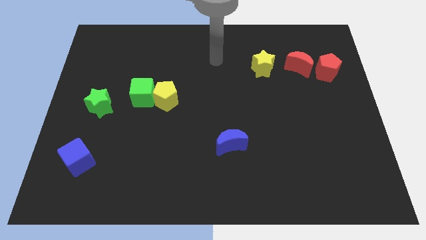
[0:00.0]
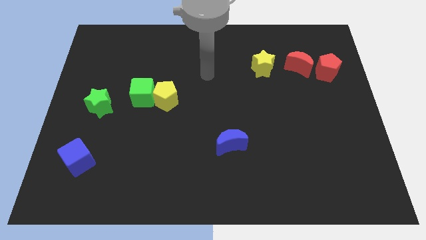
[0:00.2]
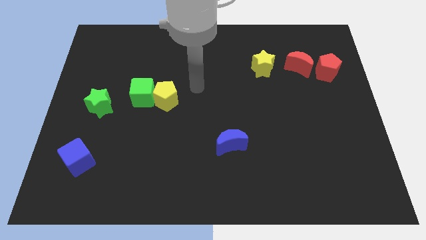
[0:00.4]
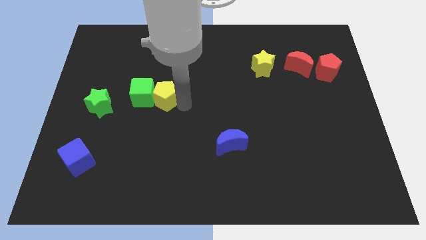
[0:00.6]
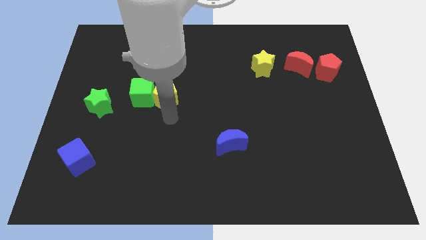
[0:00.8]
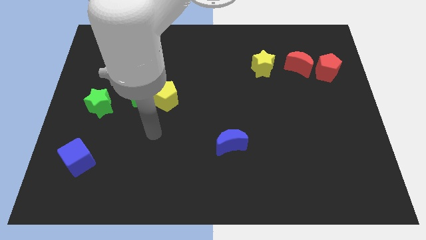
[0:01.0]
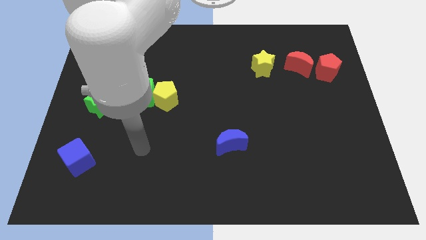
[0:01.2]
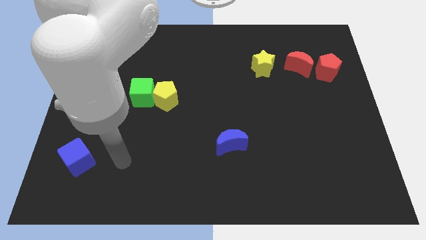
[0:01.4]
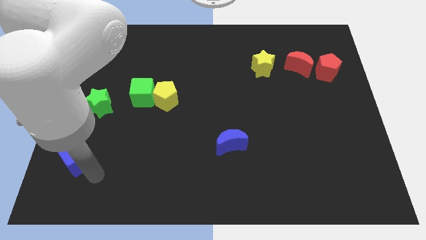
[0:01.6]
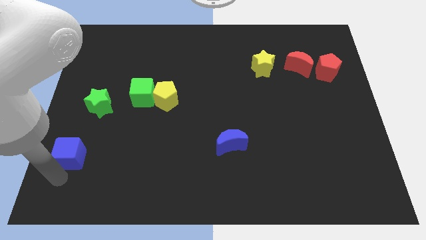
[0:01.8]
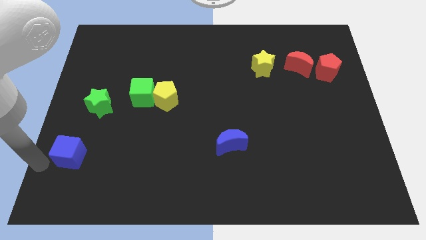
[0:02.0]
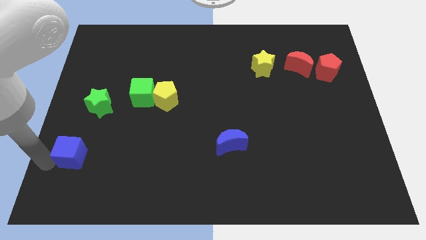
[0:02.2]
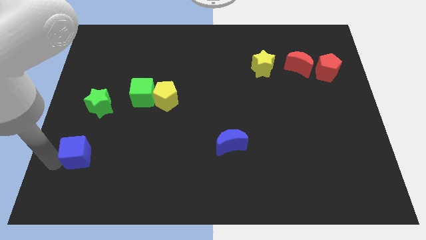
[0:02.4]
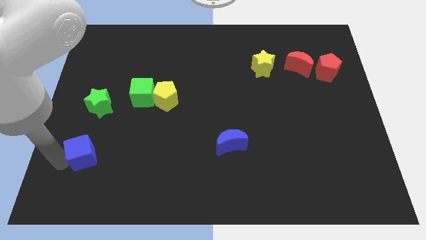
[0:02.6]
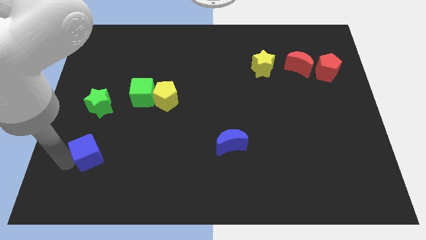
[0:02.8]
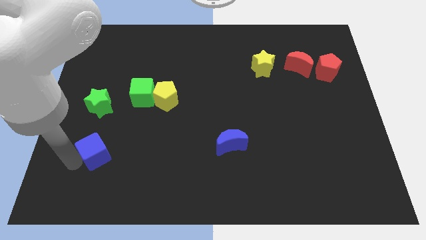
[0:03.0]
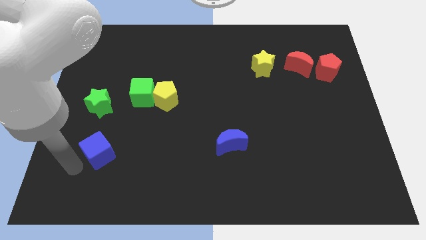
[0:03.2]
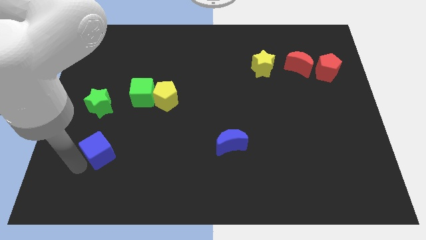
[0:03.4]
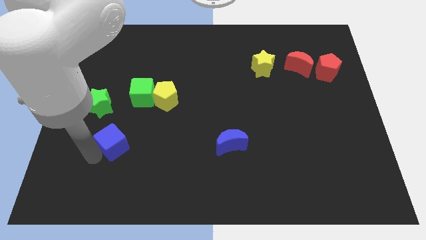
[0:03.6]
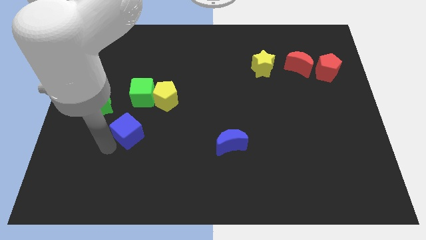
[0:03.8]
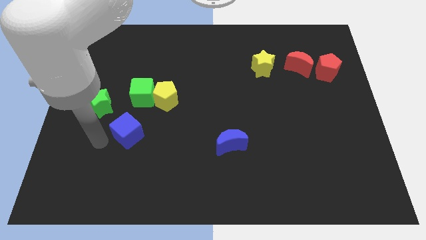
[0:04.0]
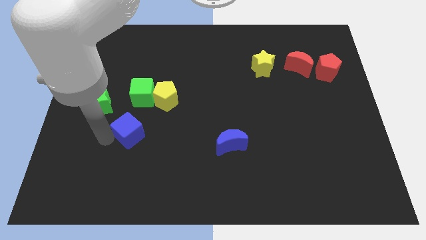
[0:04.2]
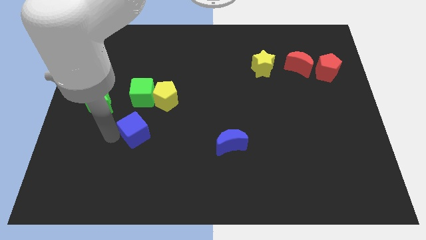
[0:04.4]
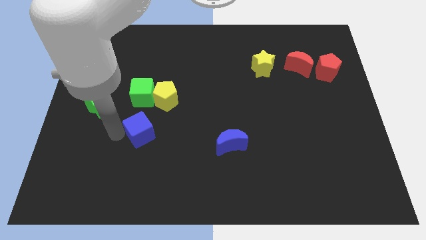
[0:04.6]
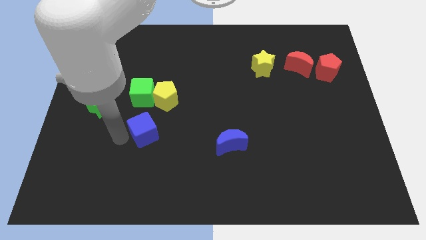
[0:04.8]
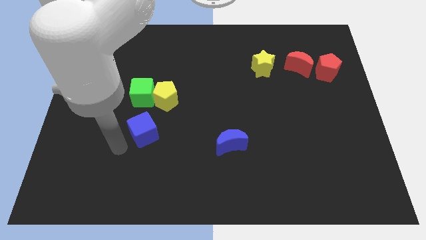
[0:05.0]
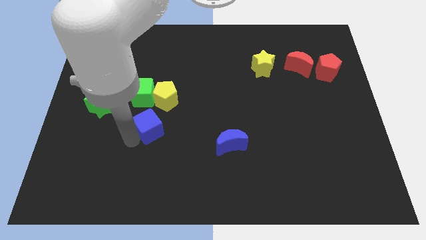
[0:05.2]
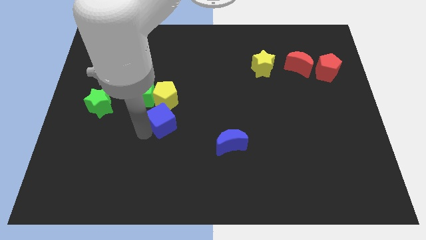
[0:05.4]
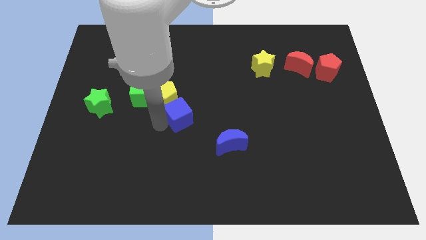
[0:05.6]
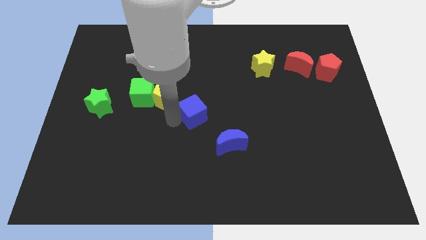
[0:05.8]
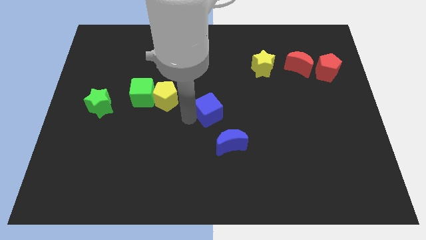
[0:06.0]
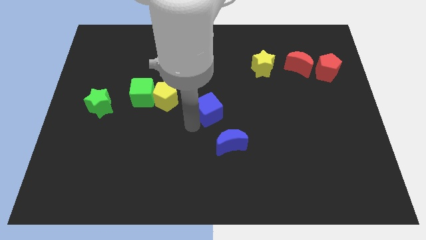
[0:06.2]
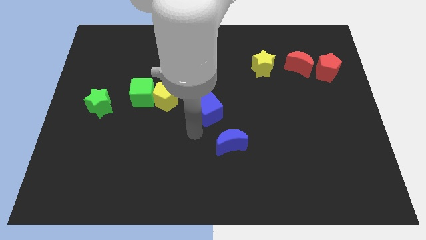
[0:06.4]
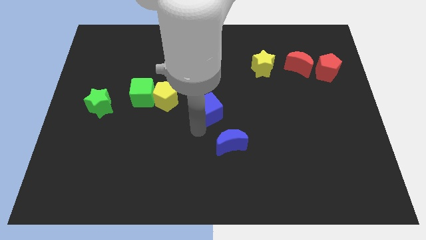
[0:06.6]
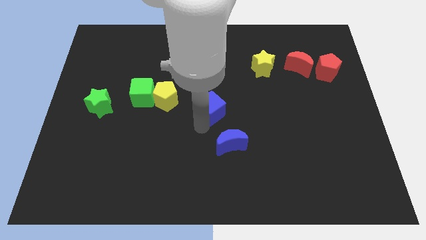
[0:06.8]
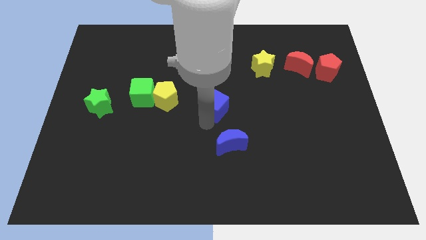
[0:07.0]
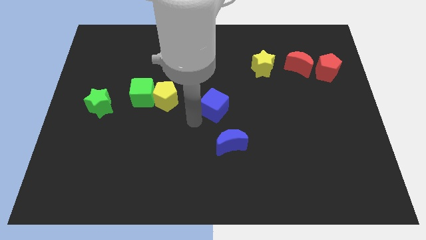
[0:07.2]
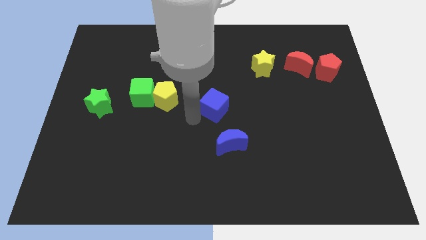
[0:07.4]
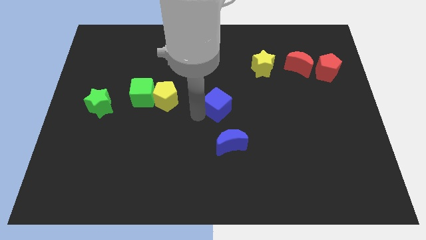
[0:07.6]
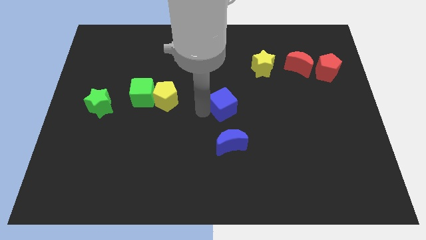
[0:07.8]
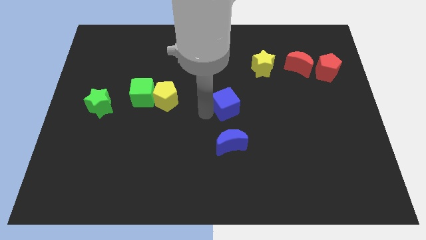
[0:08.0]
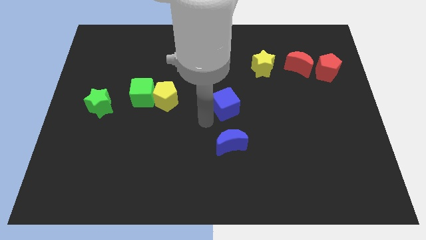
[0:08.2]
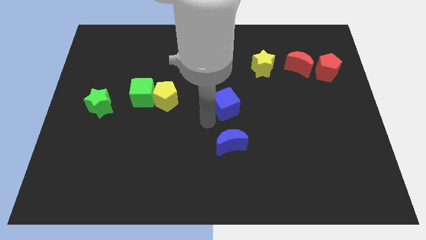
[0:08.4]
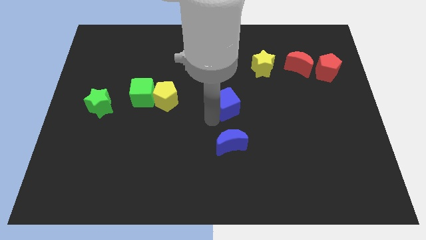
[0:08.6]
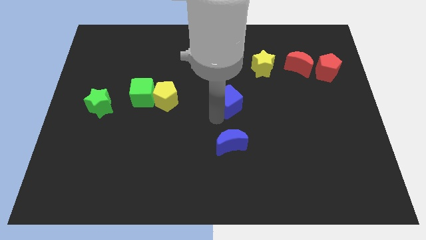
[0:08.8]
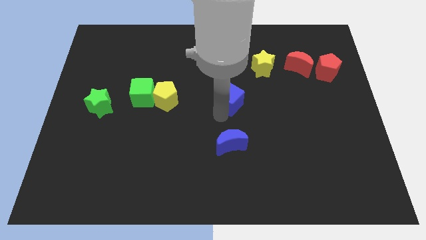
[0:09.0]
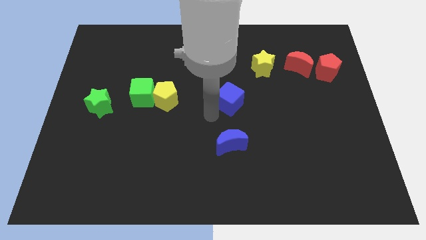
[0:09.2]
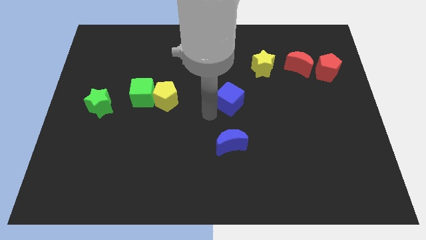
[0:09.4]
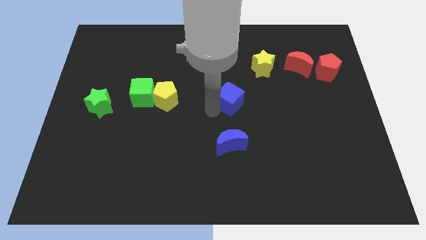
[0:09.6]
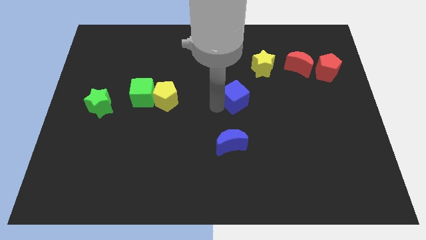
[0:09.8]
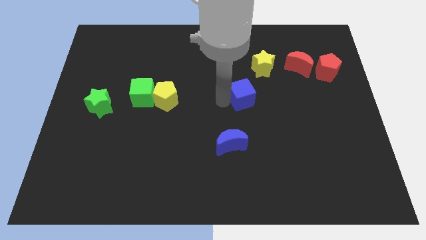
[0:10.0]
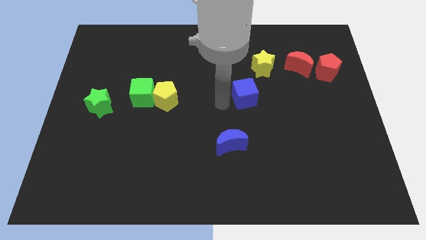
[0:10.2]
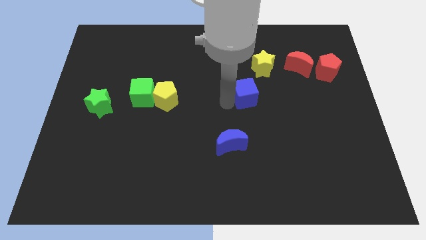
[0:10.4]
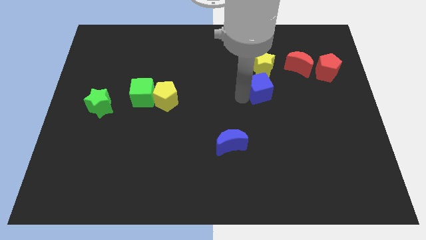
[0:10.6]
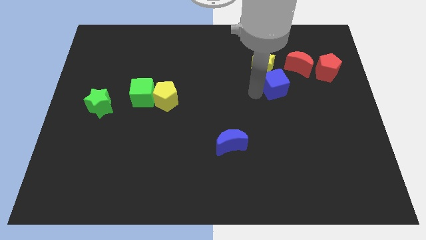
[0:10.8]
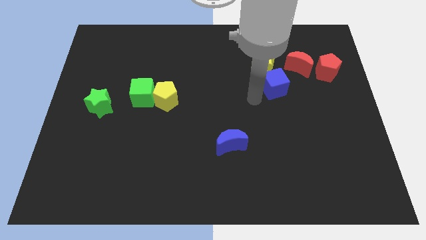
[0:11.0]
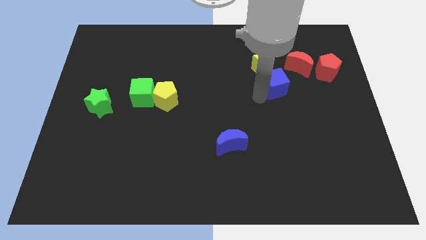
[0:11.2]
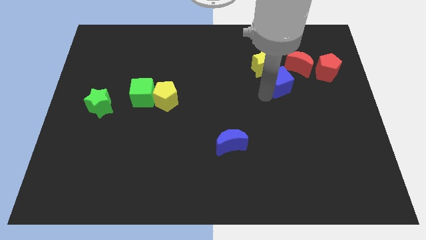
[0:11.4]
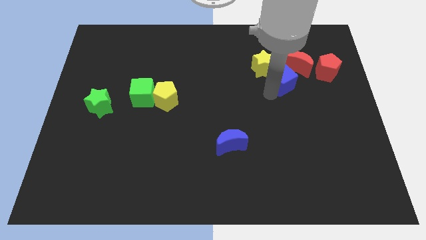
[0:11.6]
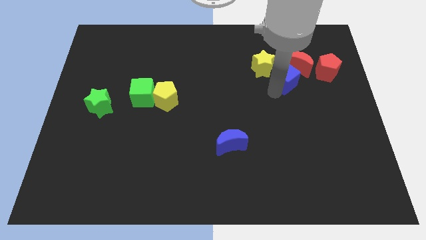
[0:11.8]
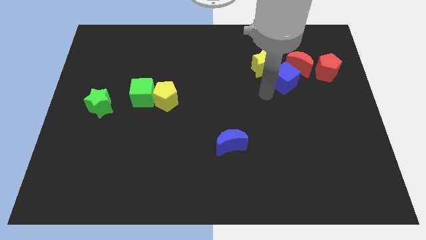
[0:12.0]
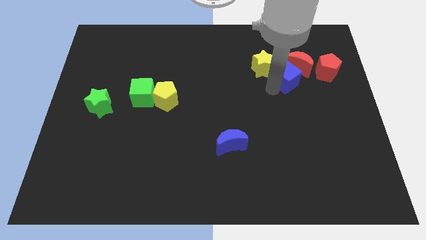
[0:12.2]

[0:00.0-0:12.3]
slide the blue cube close to the red moon

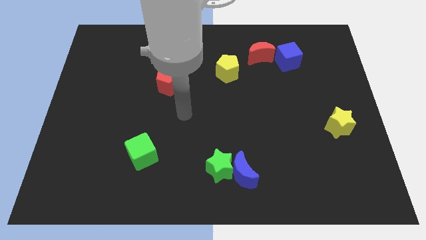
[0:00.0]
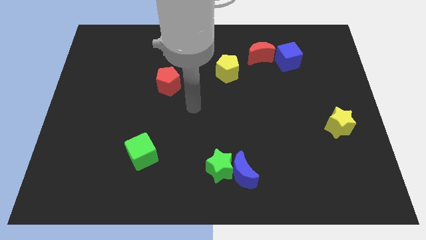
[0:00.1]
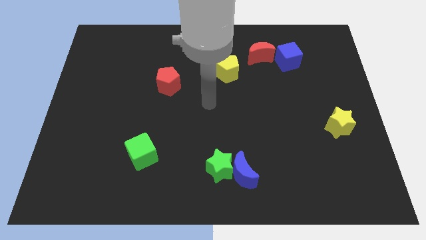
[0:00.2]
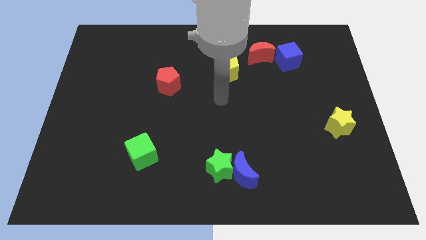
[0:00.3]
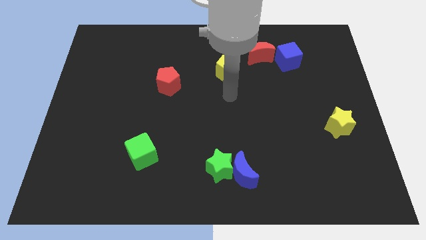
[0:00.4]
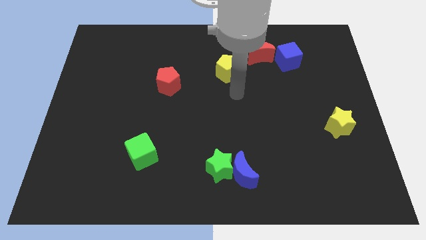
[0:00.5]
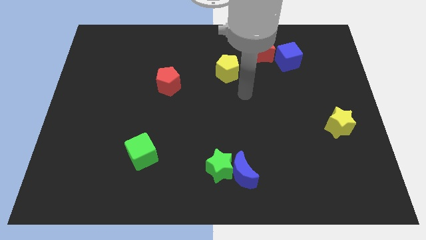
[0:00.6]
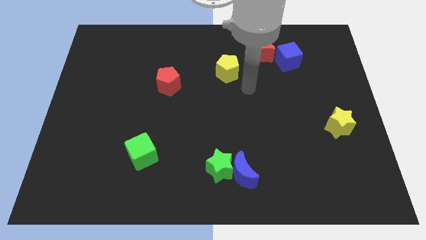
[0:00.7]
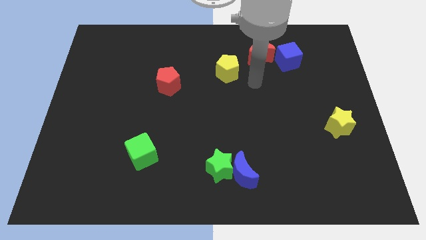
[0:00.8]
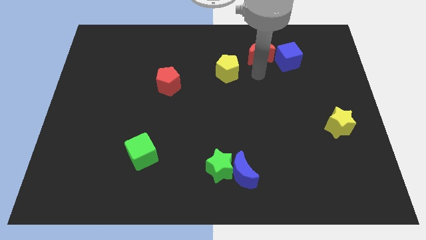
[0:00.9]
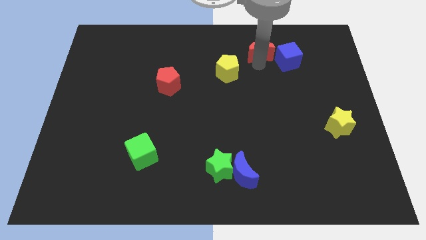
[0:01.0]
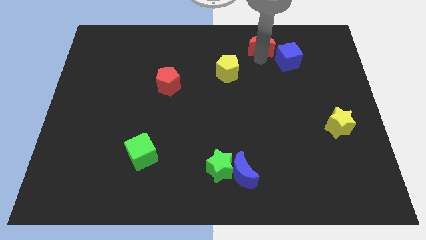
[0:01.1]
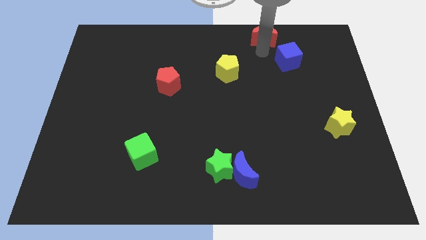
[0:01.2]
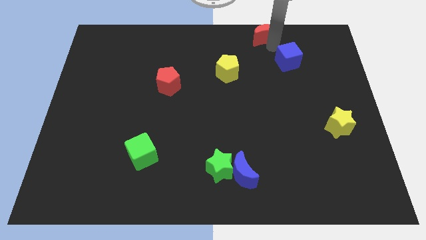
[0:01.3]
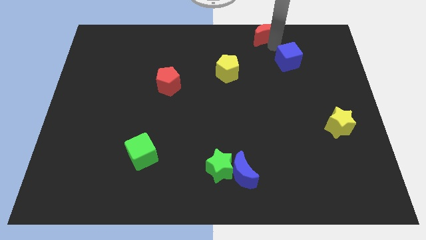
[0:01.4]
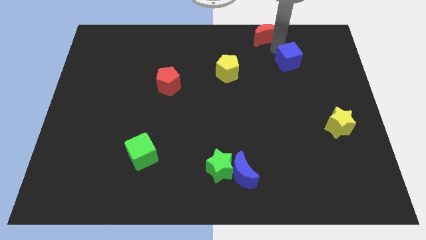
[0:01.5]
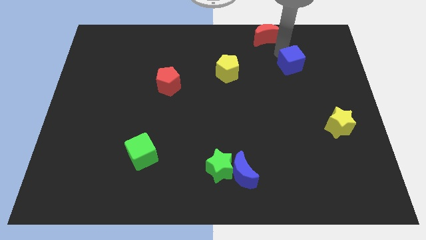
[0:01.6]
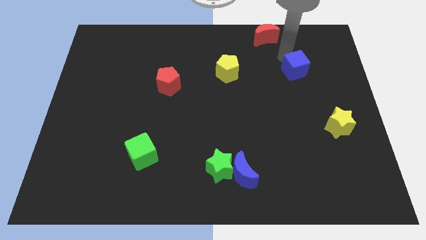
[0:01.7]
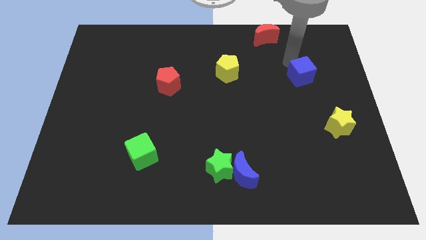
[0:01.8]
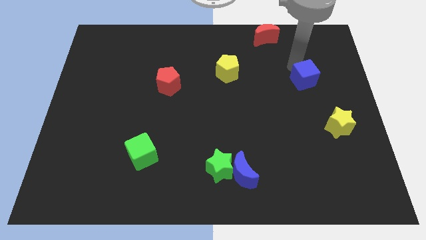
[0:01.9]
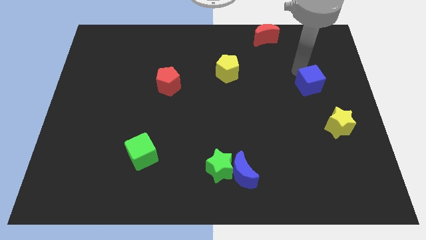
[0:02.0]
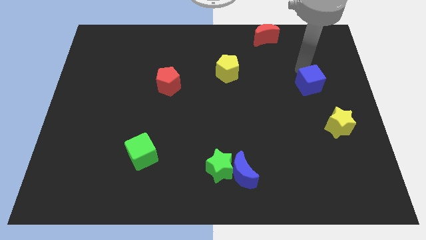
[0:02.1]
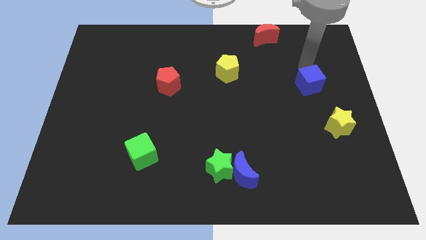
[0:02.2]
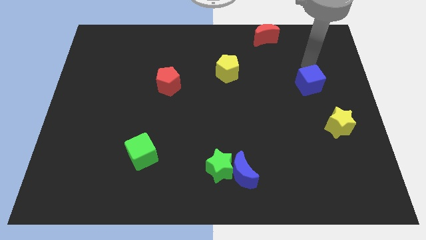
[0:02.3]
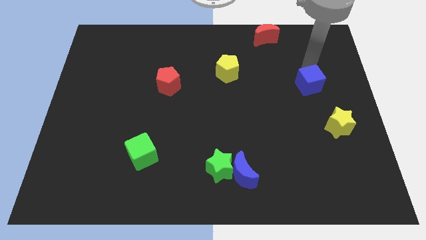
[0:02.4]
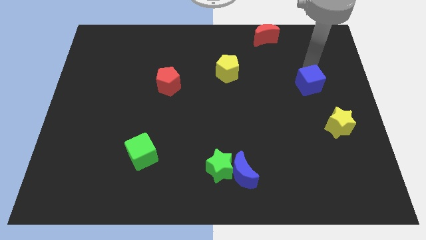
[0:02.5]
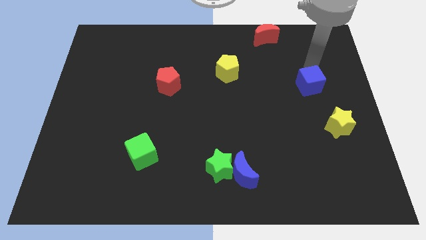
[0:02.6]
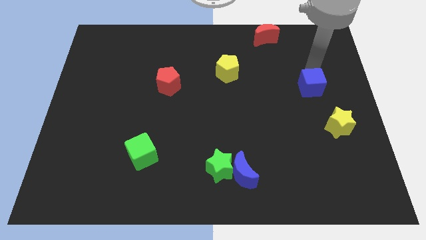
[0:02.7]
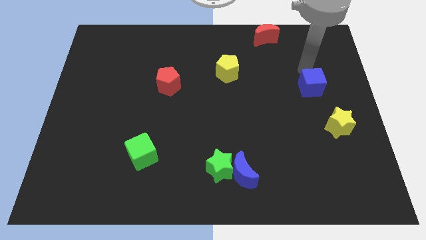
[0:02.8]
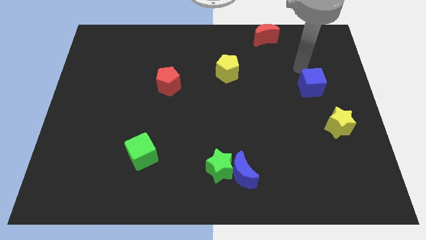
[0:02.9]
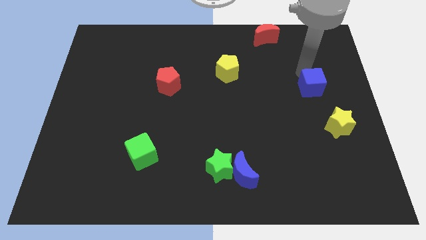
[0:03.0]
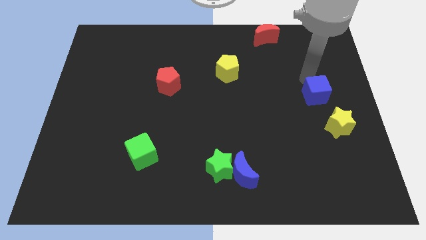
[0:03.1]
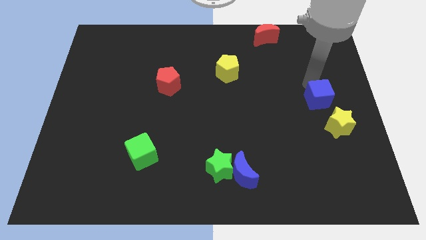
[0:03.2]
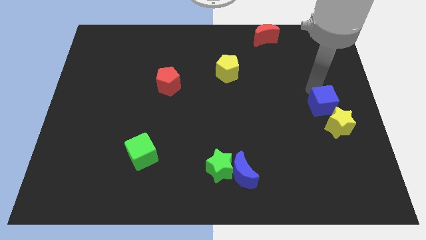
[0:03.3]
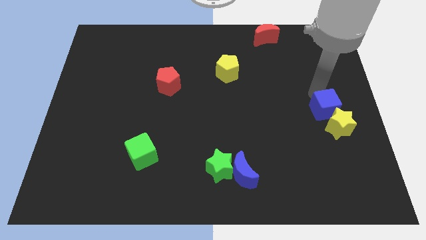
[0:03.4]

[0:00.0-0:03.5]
move the blue cube close to the yellow star
